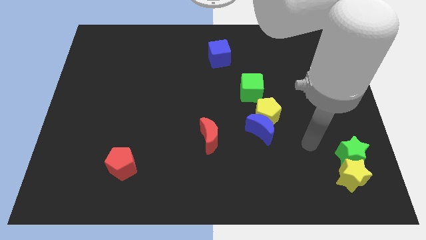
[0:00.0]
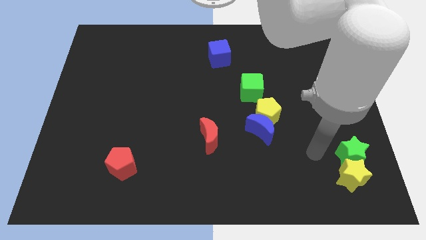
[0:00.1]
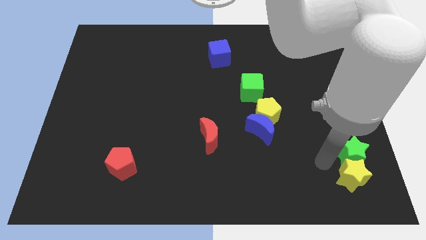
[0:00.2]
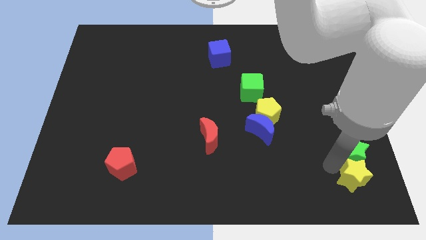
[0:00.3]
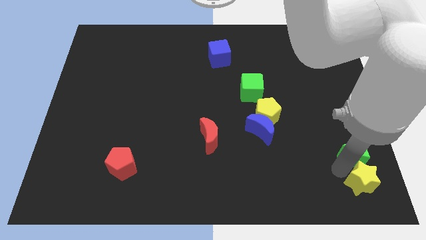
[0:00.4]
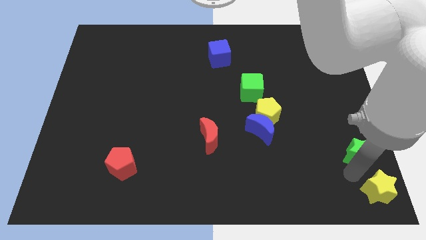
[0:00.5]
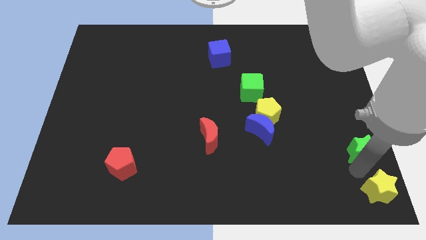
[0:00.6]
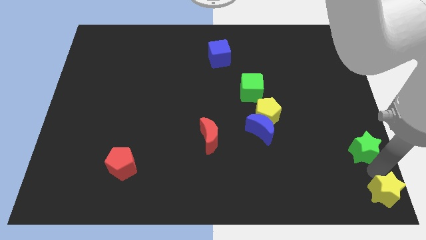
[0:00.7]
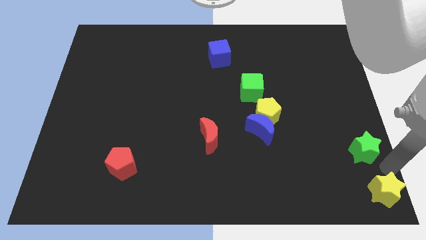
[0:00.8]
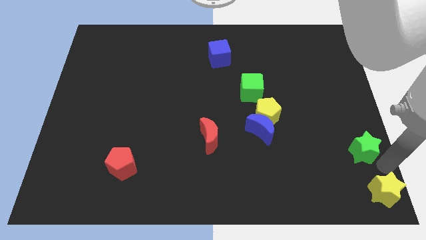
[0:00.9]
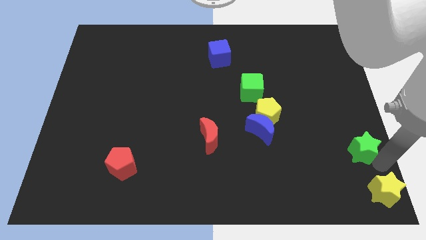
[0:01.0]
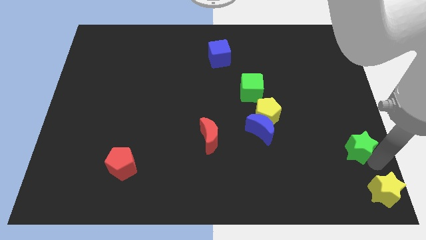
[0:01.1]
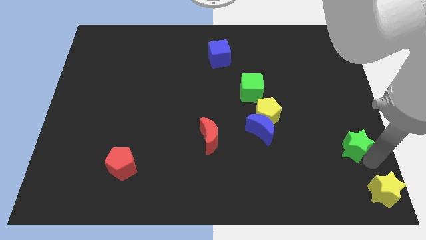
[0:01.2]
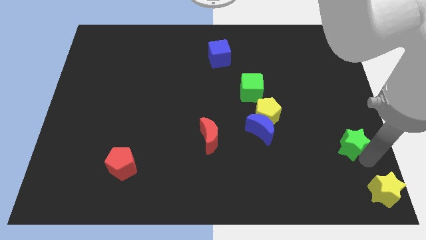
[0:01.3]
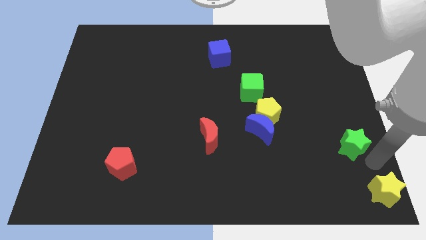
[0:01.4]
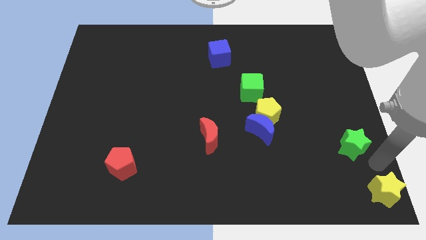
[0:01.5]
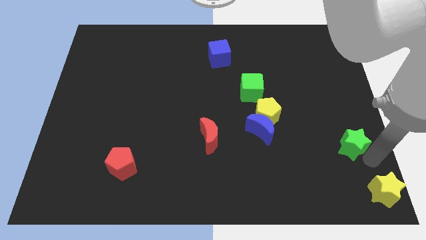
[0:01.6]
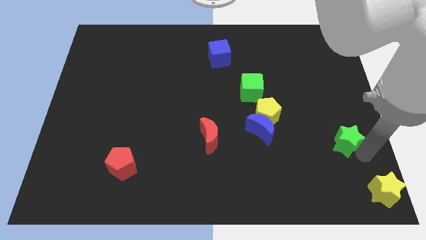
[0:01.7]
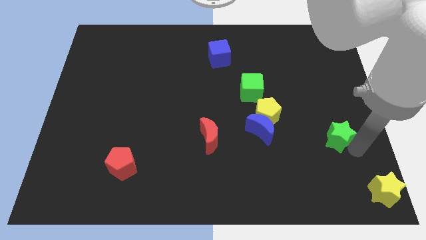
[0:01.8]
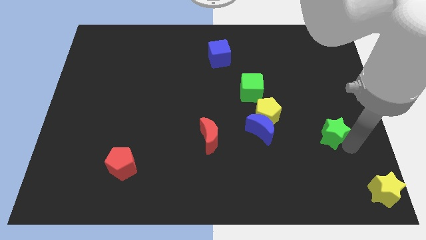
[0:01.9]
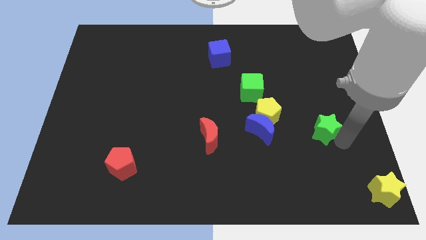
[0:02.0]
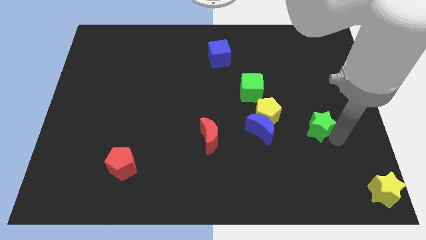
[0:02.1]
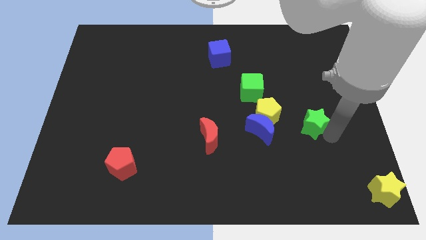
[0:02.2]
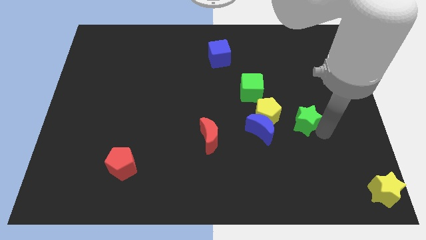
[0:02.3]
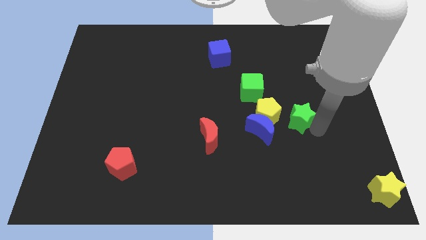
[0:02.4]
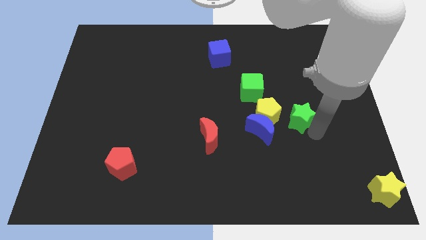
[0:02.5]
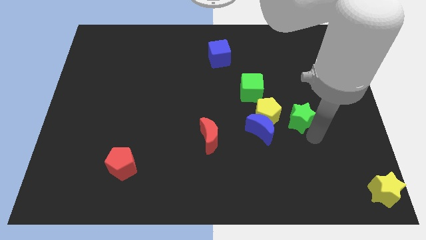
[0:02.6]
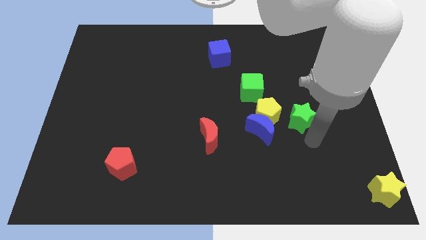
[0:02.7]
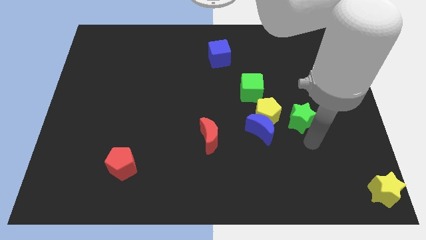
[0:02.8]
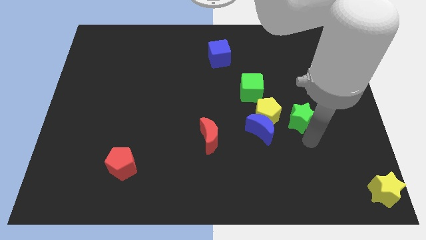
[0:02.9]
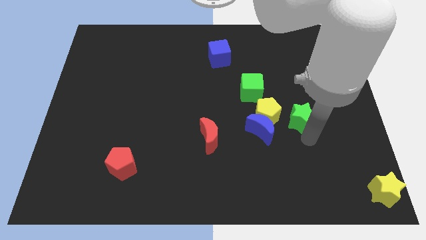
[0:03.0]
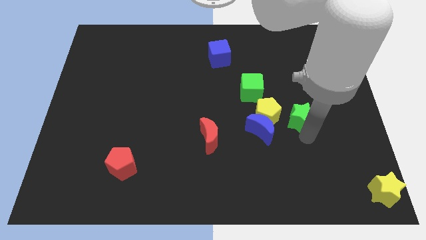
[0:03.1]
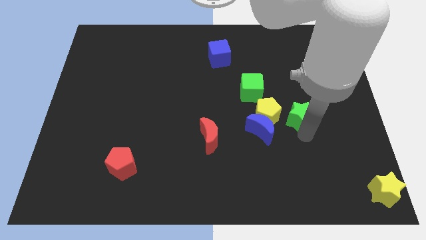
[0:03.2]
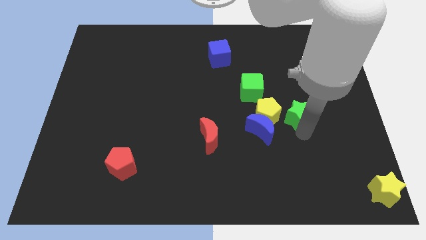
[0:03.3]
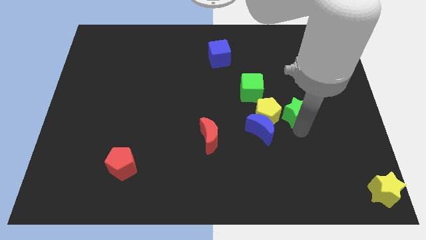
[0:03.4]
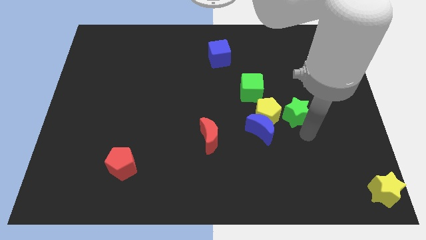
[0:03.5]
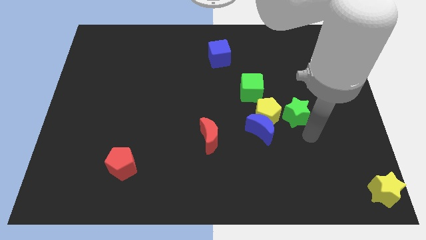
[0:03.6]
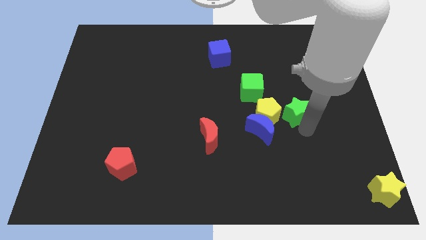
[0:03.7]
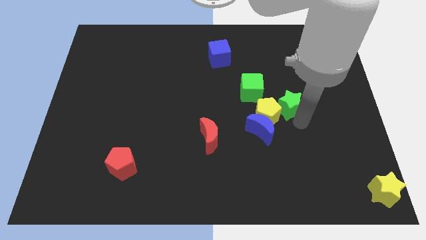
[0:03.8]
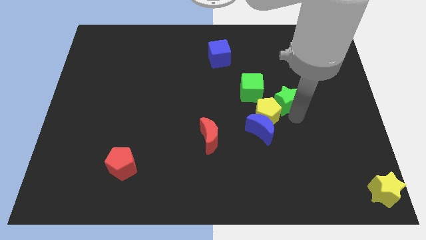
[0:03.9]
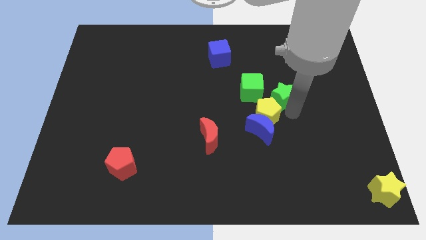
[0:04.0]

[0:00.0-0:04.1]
push the green star up and left

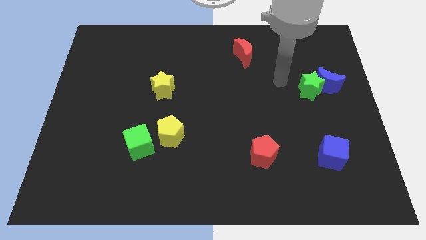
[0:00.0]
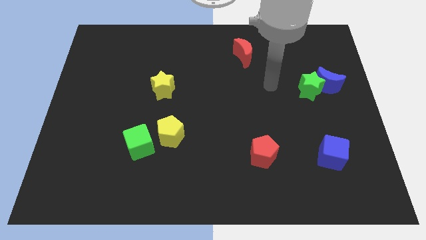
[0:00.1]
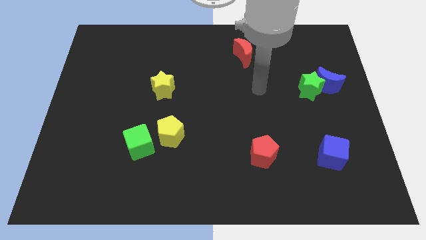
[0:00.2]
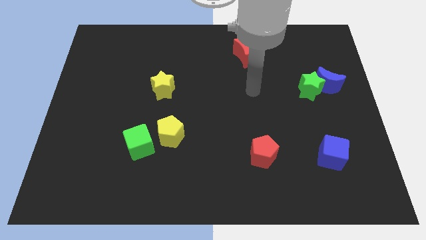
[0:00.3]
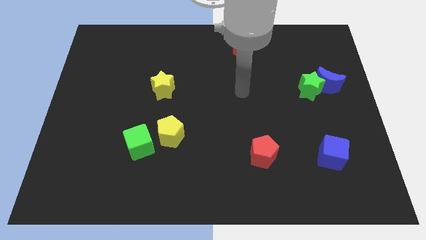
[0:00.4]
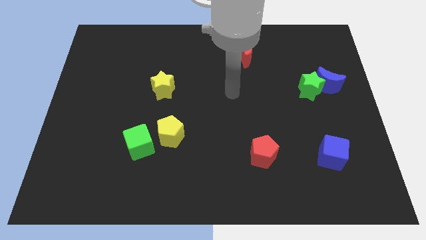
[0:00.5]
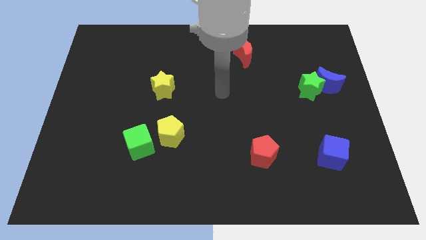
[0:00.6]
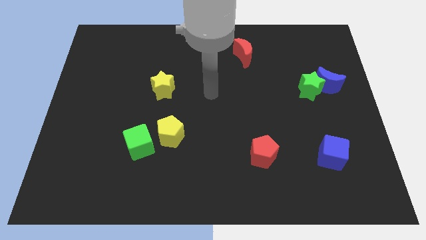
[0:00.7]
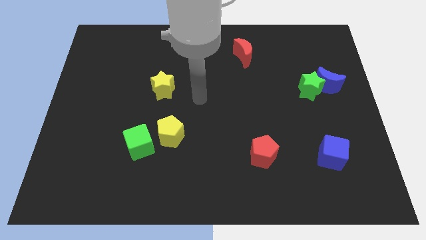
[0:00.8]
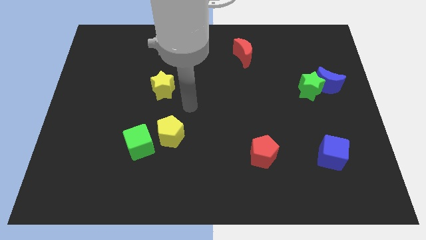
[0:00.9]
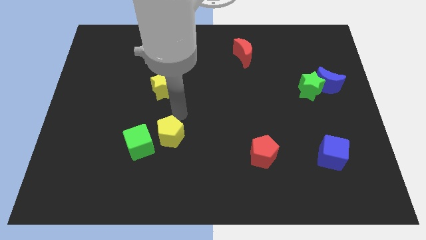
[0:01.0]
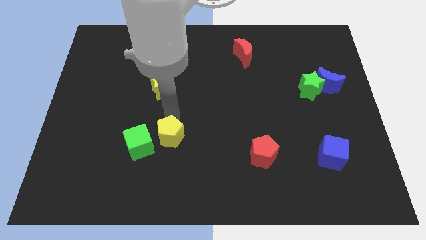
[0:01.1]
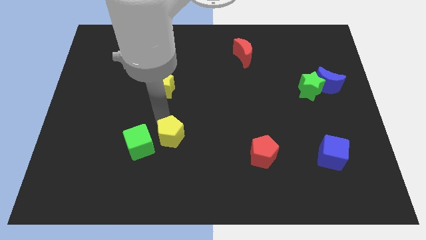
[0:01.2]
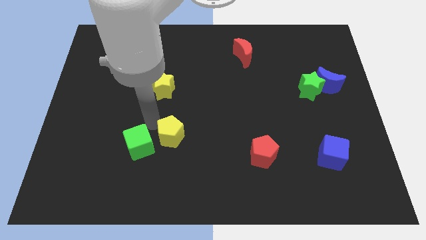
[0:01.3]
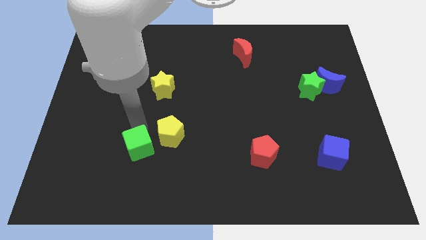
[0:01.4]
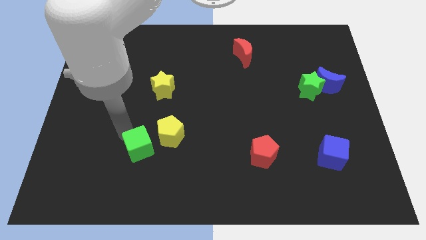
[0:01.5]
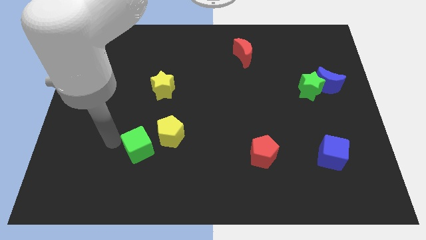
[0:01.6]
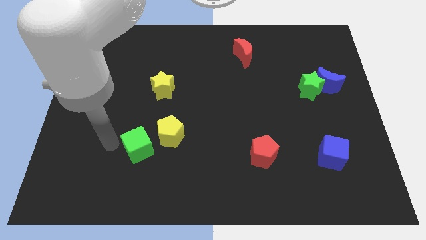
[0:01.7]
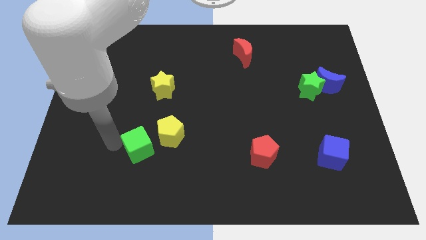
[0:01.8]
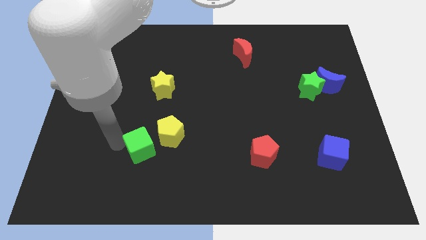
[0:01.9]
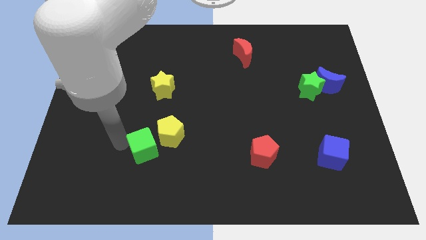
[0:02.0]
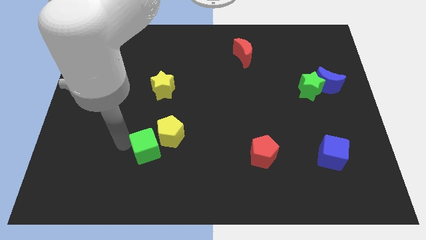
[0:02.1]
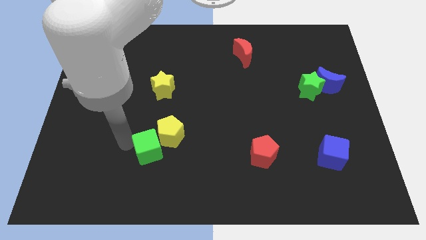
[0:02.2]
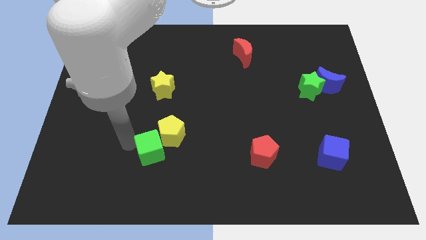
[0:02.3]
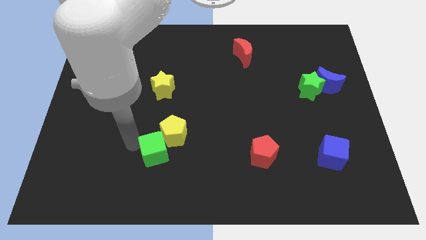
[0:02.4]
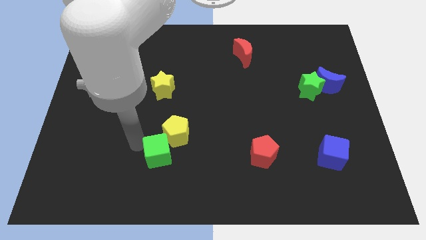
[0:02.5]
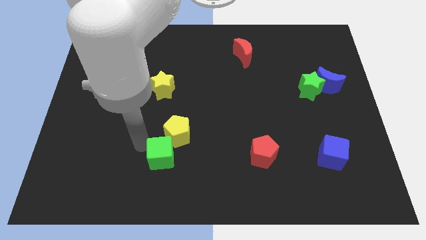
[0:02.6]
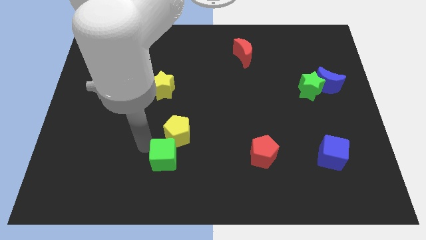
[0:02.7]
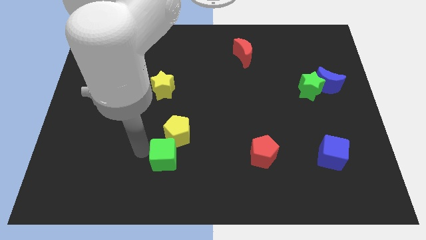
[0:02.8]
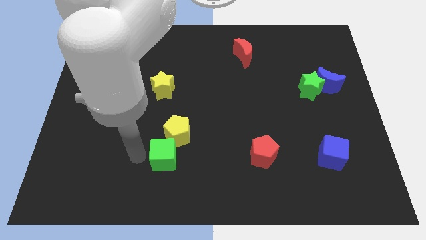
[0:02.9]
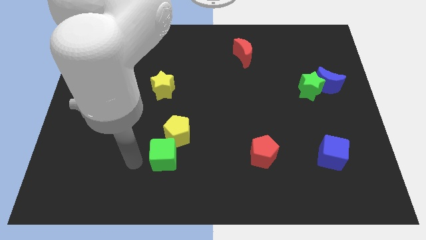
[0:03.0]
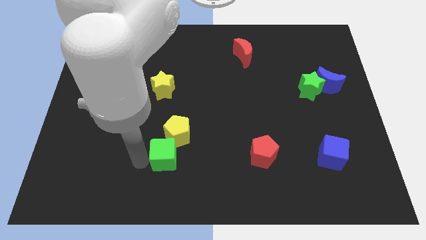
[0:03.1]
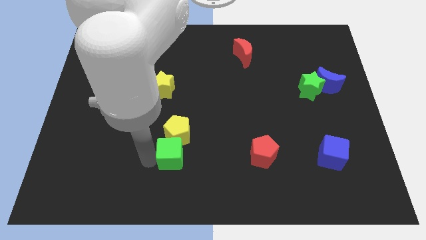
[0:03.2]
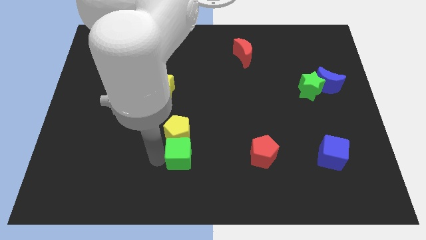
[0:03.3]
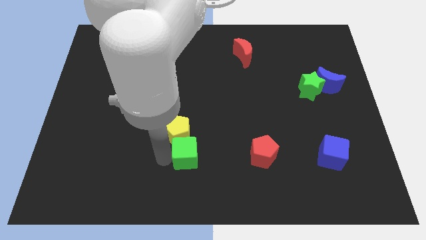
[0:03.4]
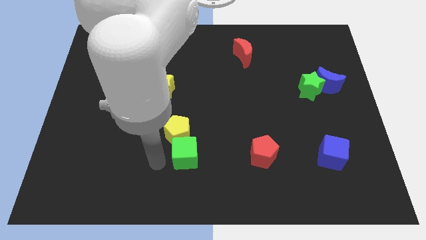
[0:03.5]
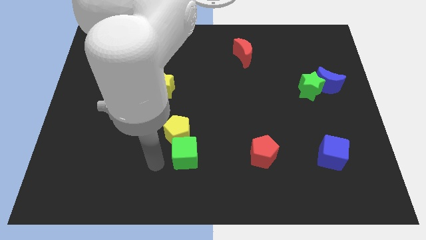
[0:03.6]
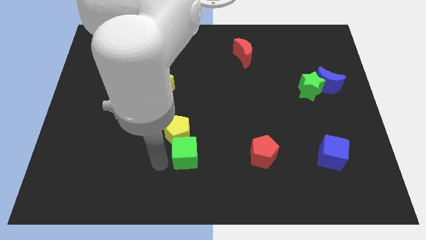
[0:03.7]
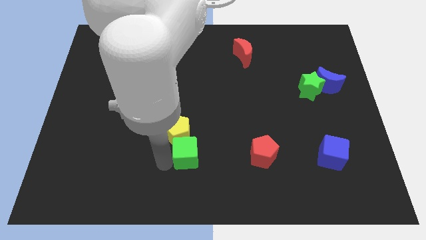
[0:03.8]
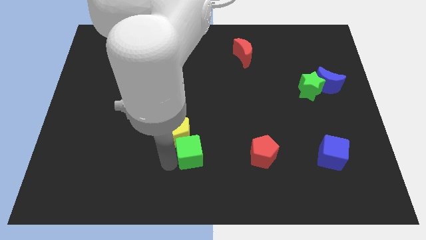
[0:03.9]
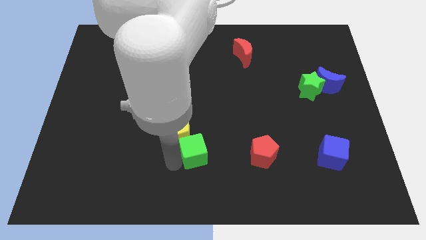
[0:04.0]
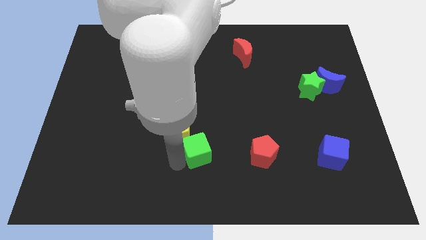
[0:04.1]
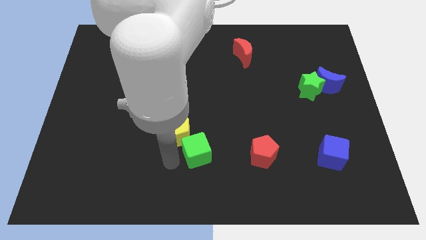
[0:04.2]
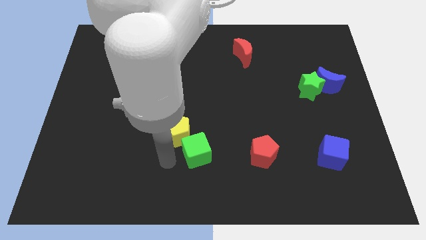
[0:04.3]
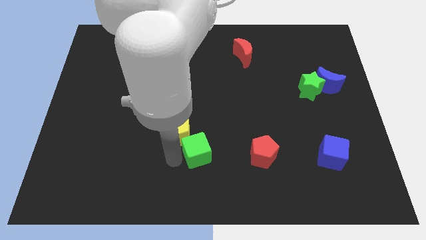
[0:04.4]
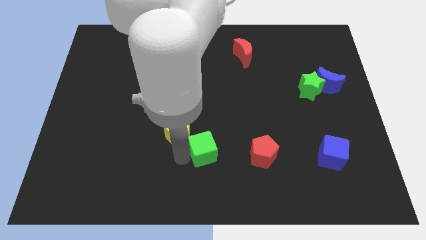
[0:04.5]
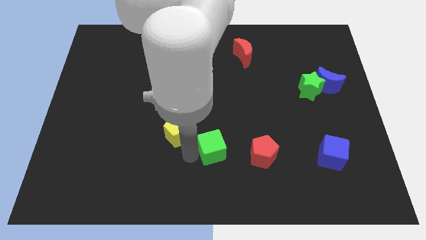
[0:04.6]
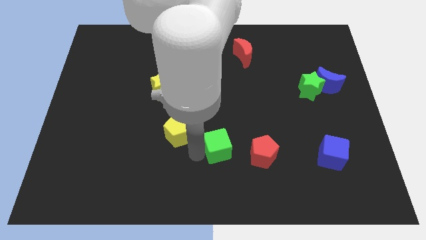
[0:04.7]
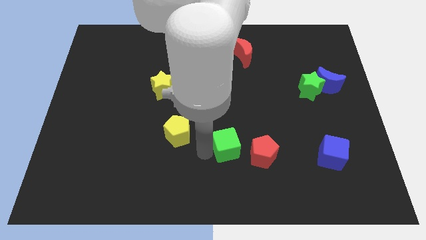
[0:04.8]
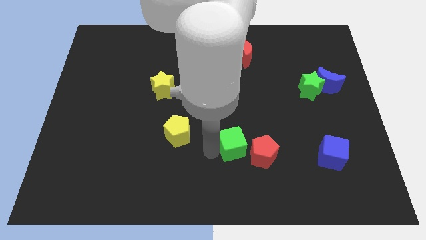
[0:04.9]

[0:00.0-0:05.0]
move the green cube right
